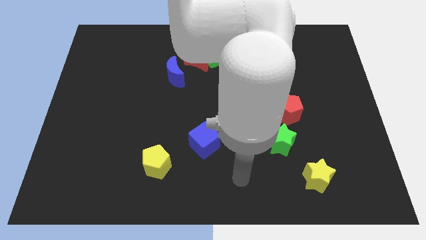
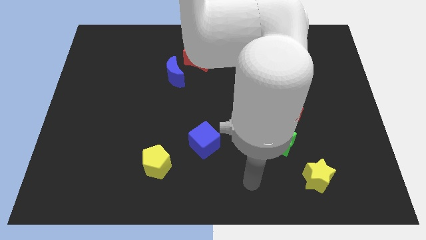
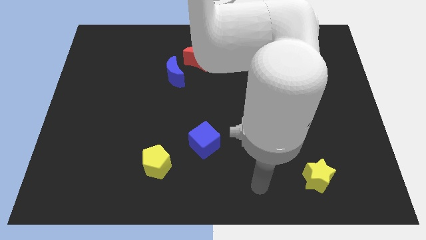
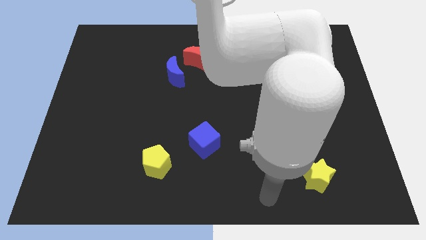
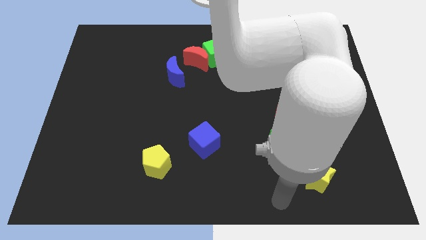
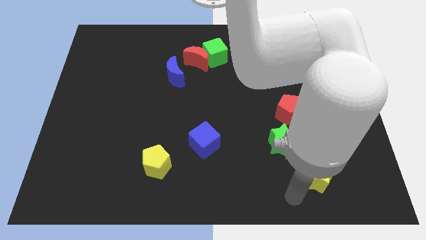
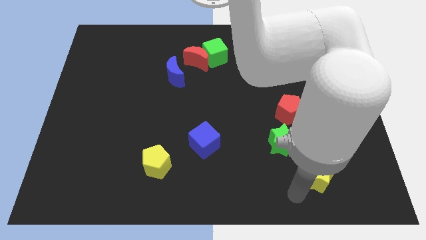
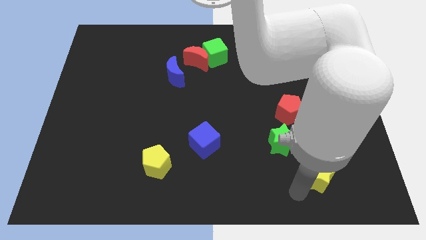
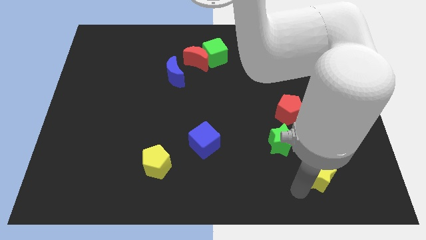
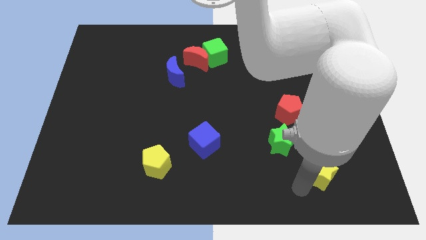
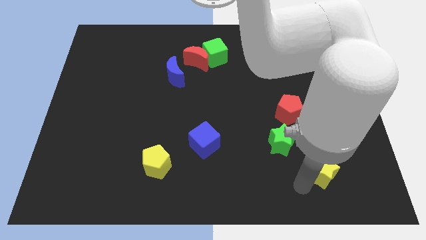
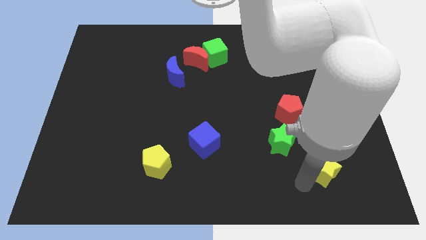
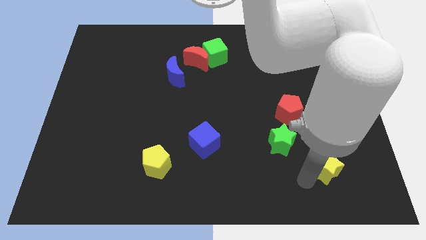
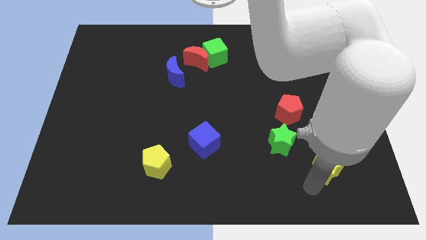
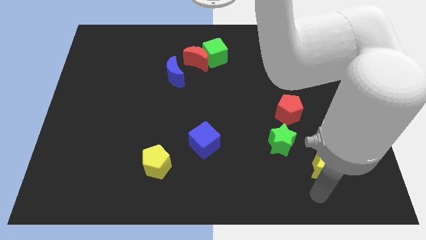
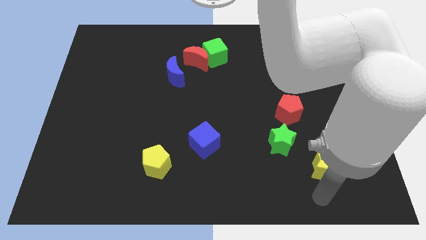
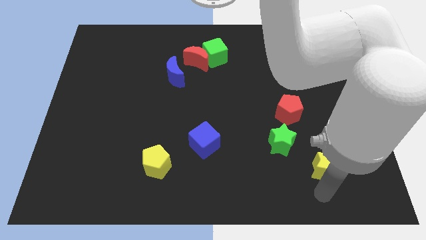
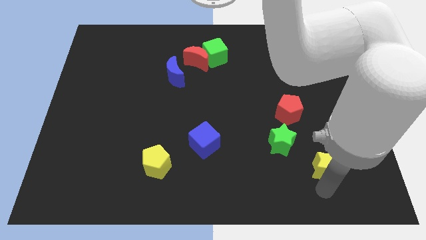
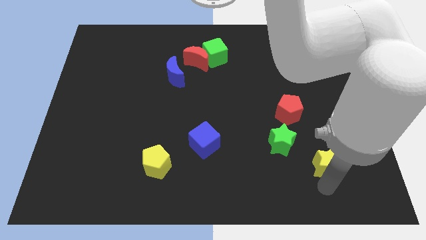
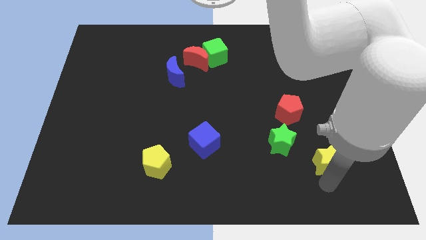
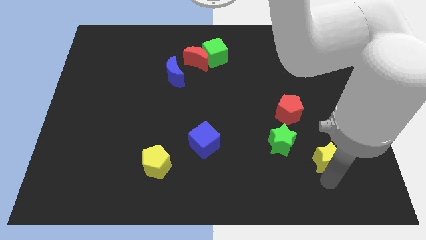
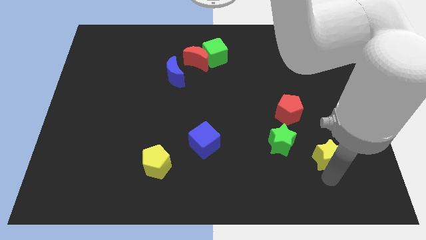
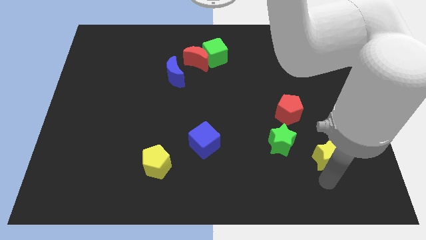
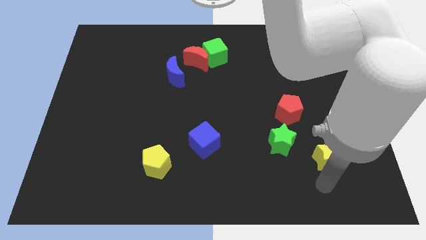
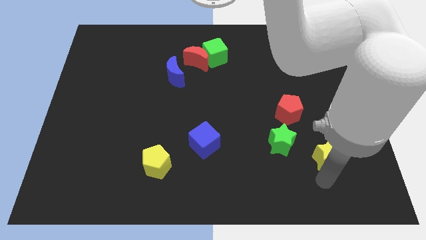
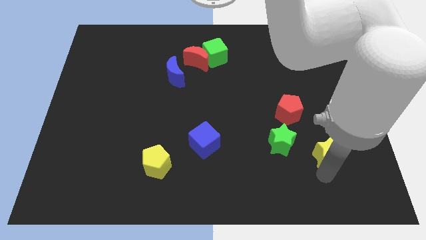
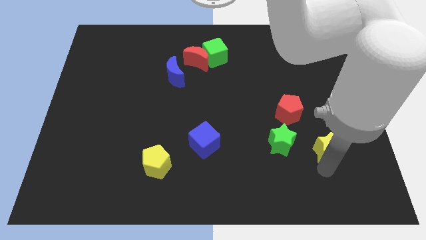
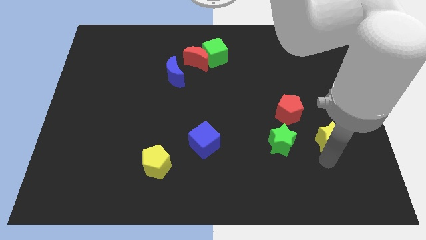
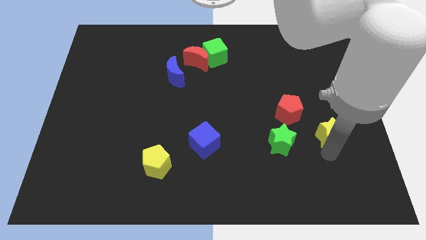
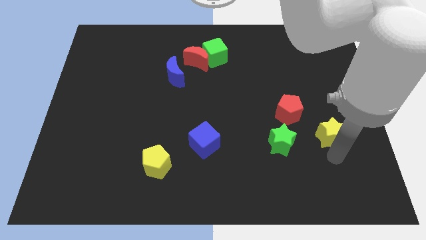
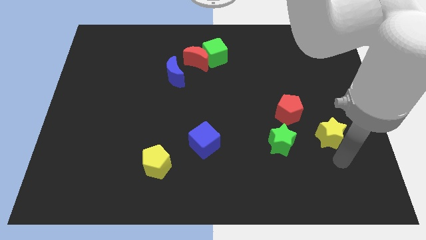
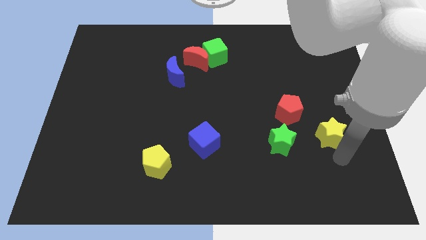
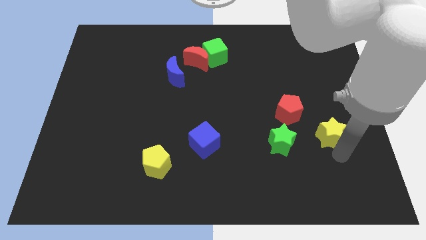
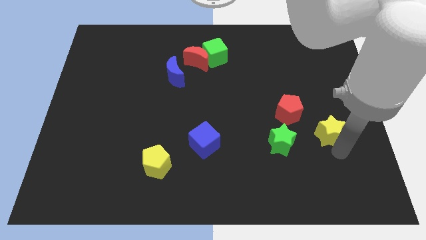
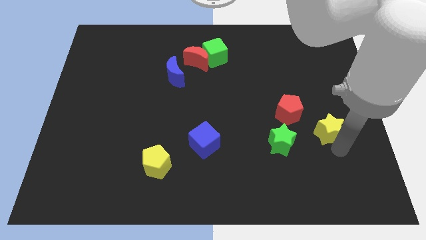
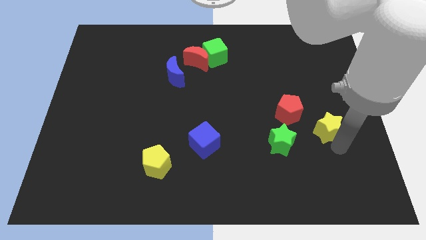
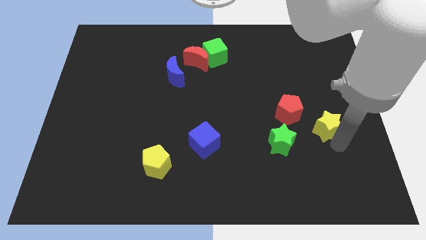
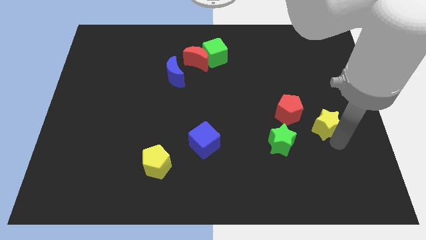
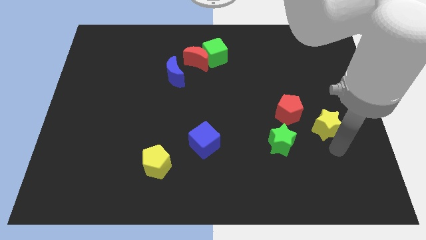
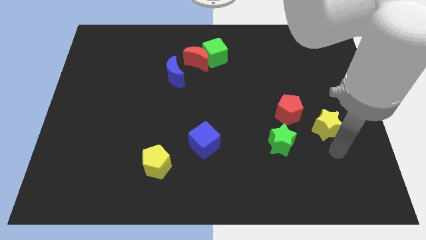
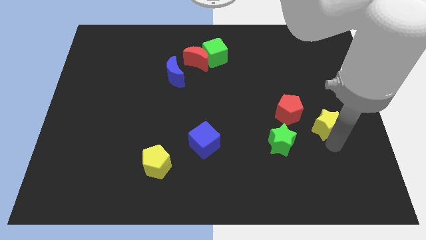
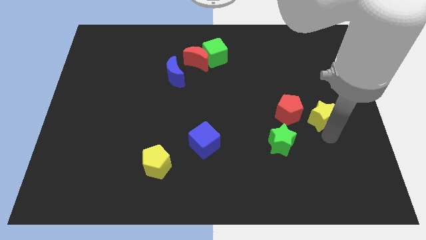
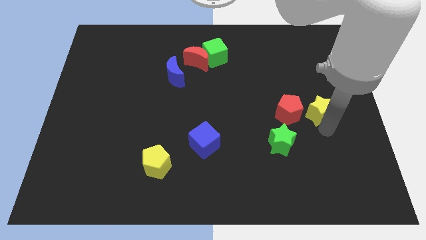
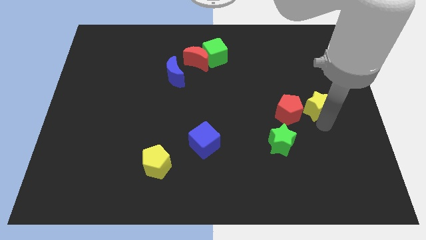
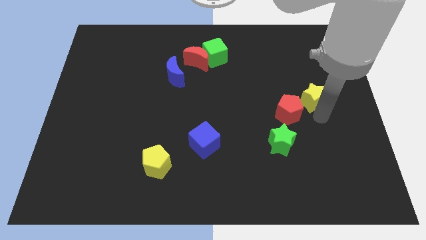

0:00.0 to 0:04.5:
push the yellow star upwards

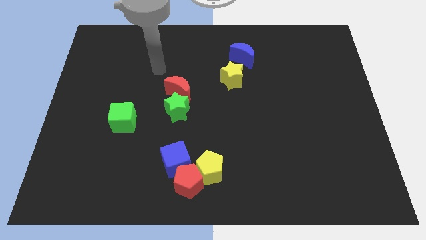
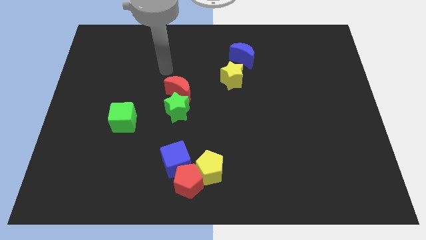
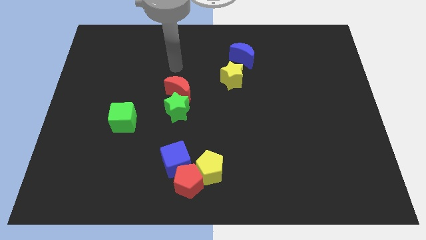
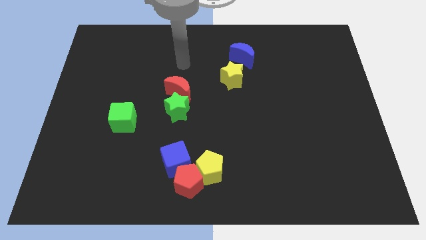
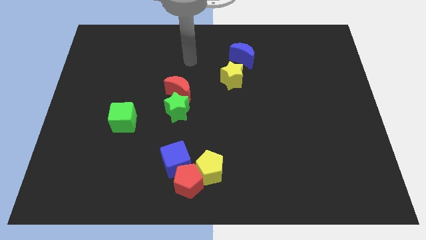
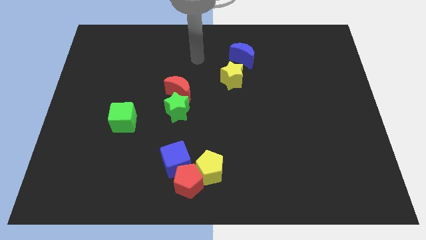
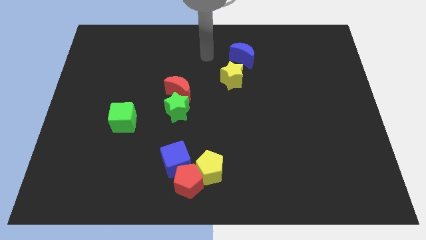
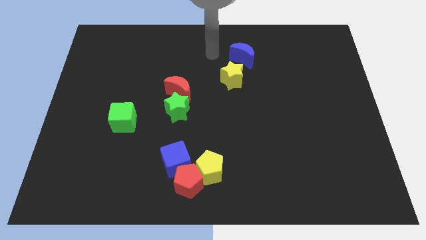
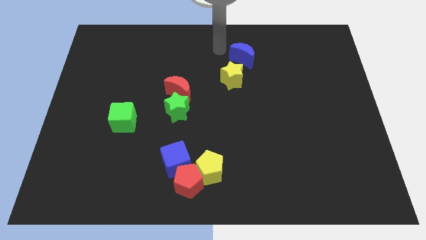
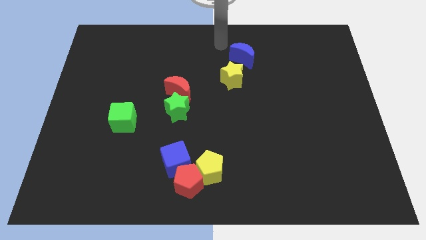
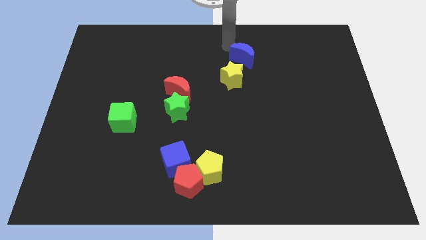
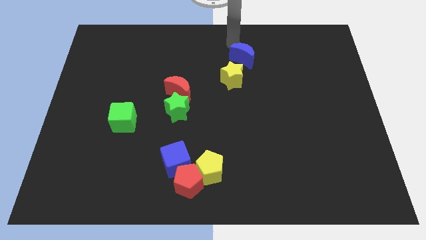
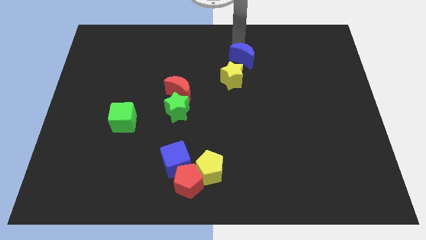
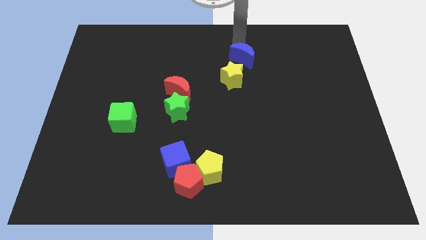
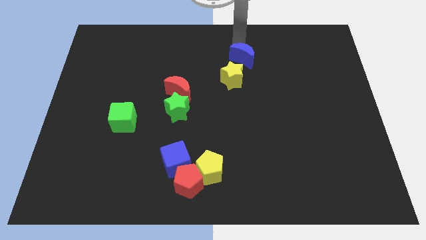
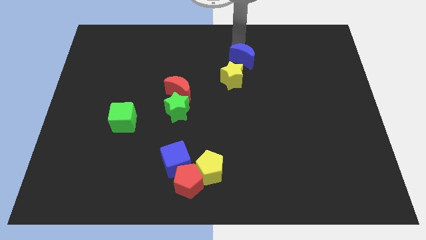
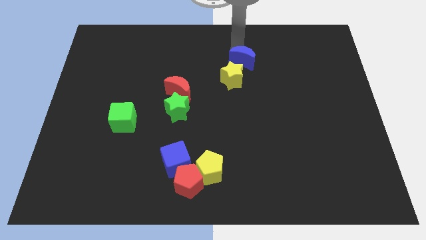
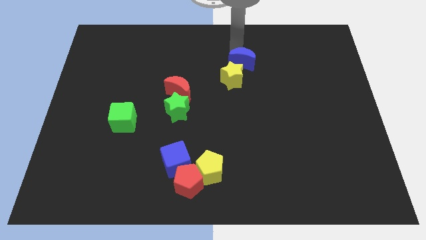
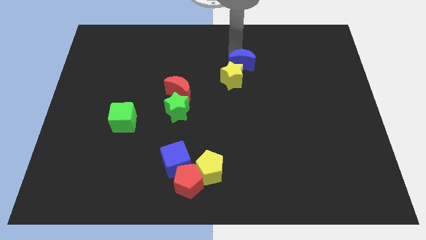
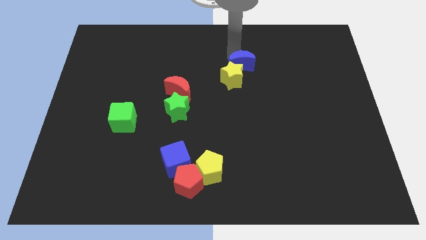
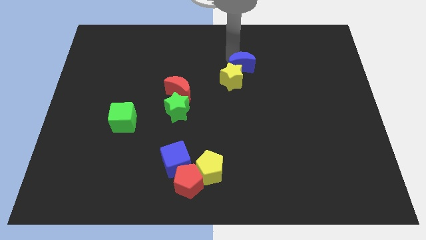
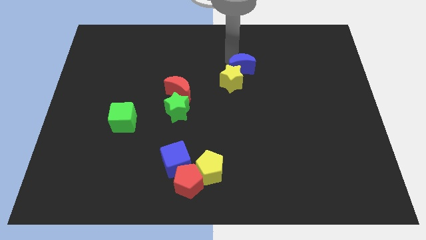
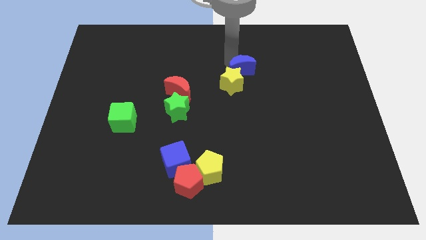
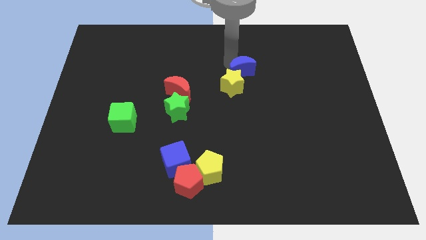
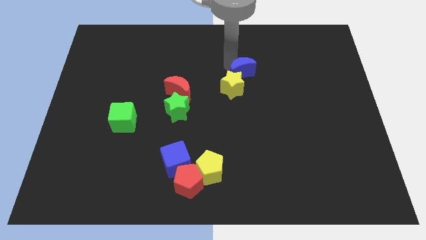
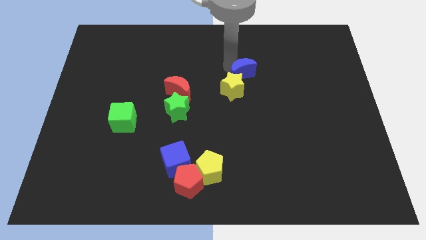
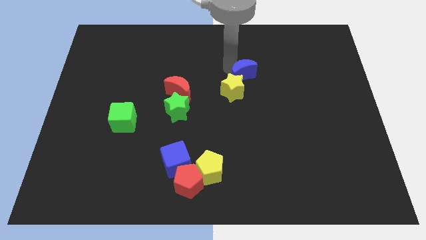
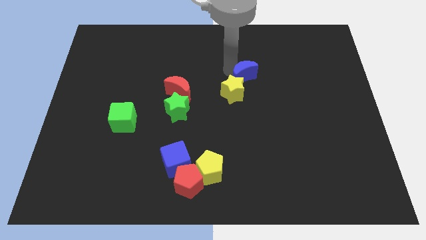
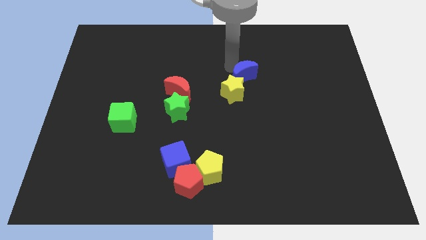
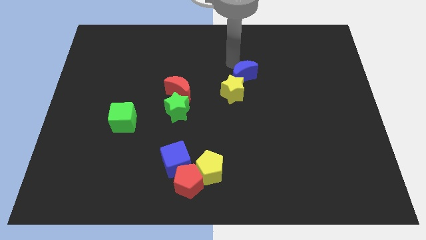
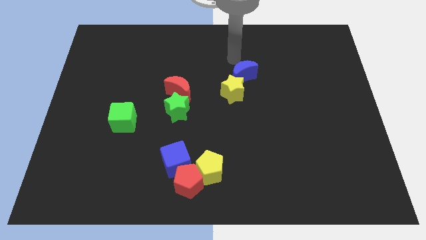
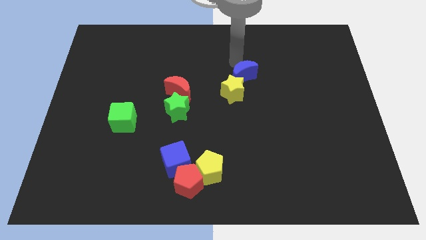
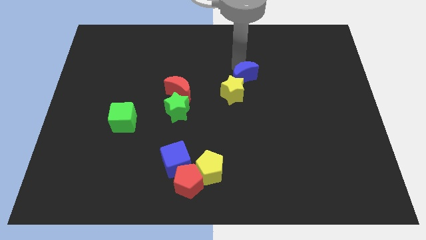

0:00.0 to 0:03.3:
slightly slide the blue moon down
